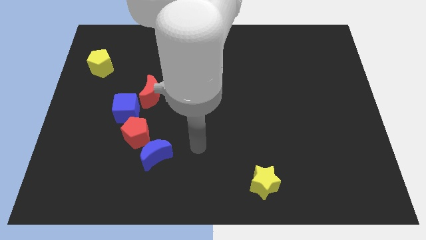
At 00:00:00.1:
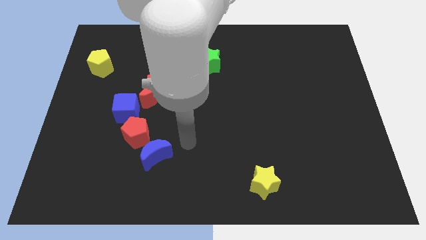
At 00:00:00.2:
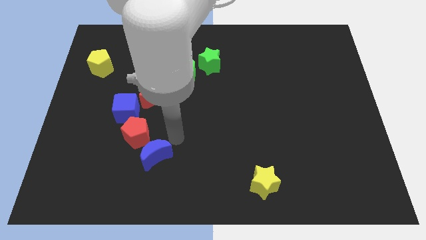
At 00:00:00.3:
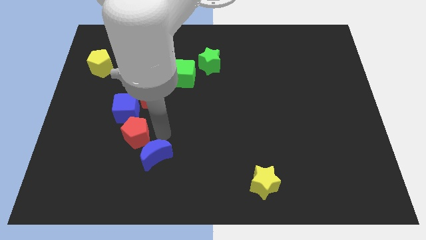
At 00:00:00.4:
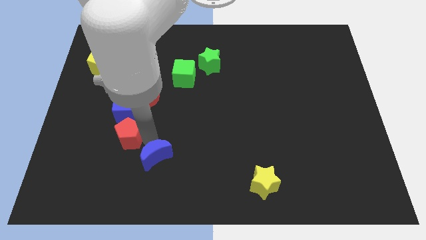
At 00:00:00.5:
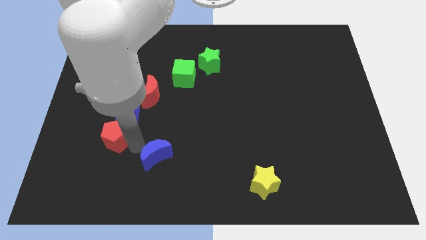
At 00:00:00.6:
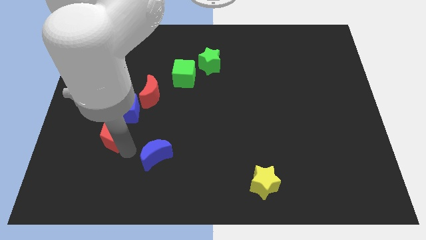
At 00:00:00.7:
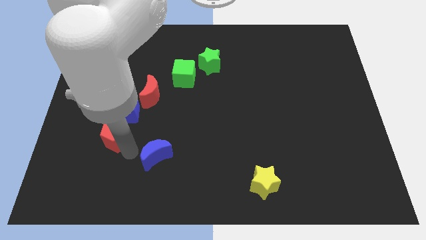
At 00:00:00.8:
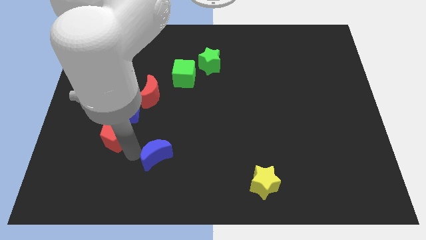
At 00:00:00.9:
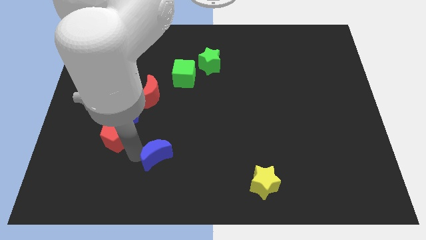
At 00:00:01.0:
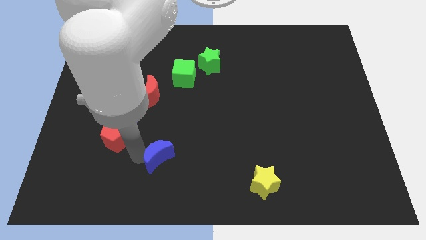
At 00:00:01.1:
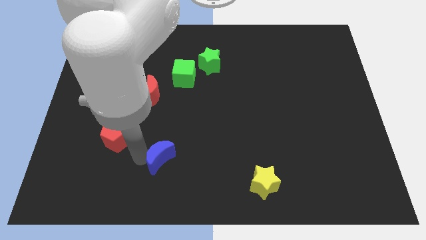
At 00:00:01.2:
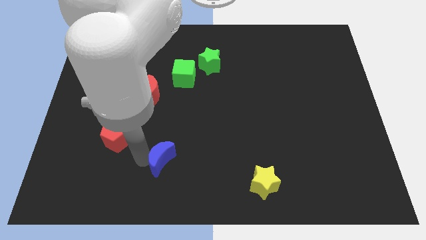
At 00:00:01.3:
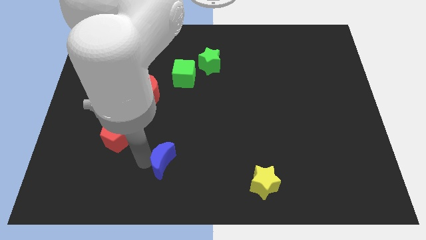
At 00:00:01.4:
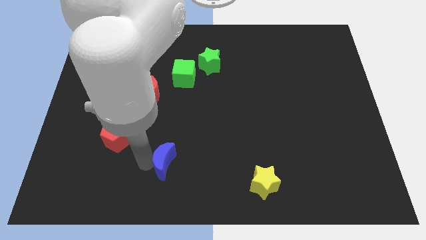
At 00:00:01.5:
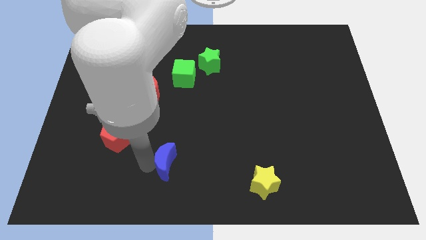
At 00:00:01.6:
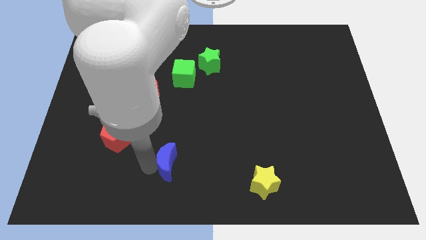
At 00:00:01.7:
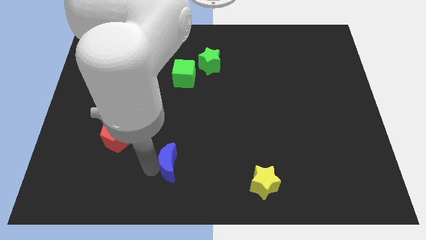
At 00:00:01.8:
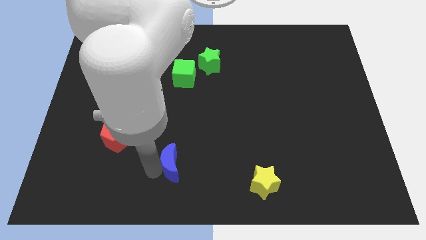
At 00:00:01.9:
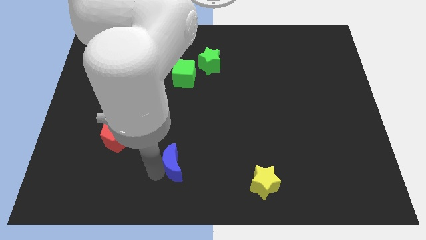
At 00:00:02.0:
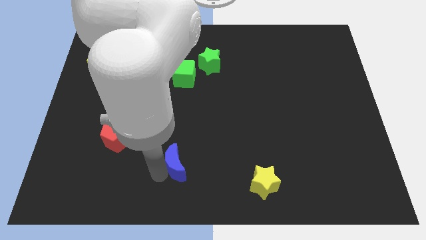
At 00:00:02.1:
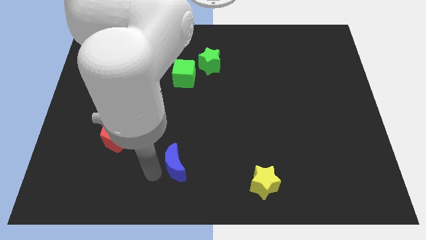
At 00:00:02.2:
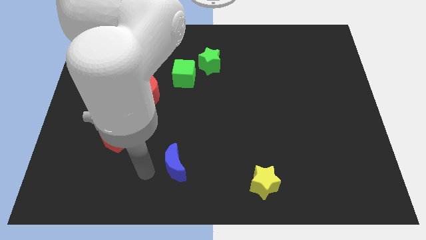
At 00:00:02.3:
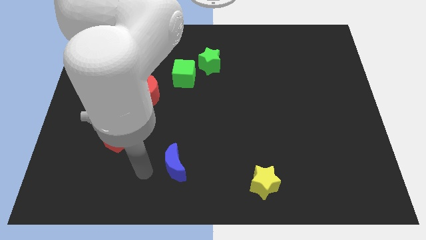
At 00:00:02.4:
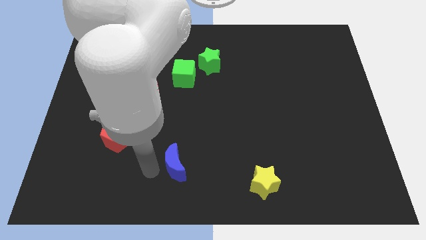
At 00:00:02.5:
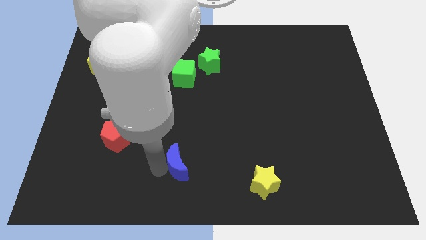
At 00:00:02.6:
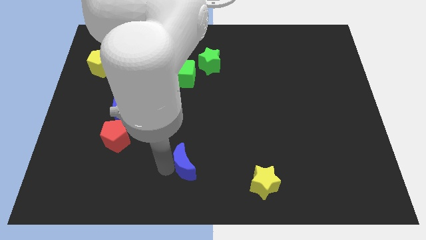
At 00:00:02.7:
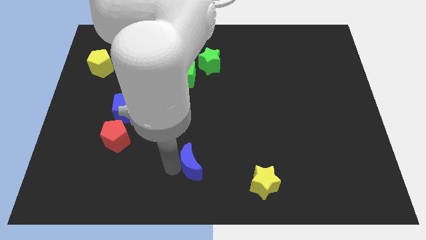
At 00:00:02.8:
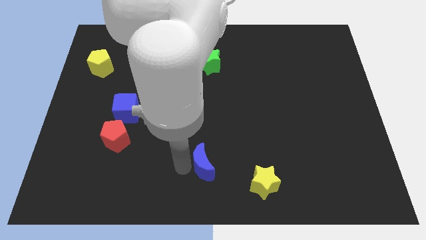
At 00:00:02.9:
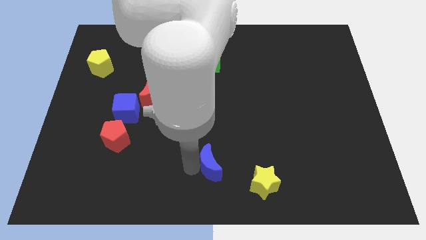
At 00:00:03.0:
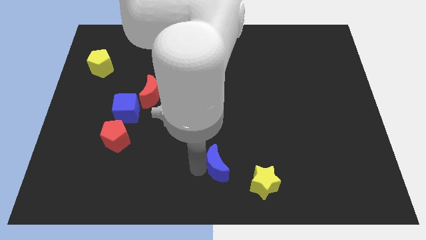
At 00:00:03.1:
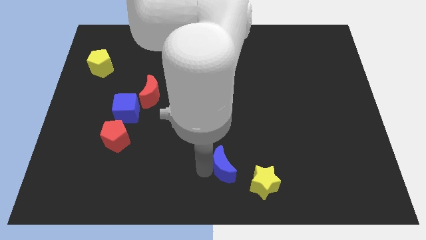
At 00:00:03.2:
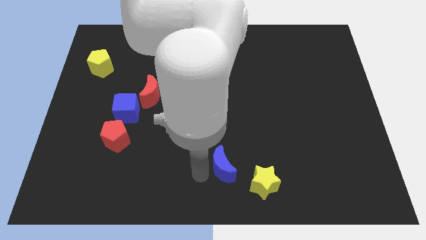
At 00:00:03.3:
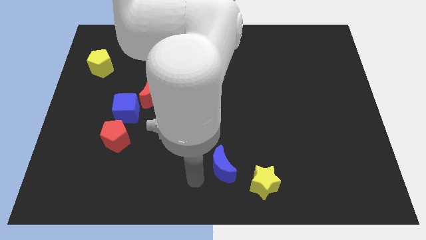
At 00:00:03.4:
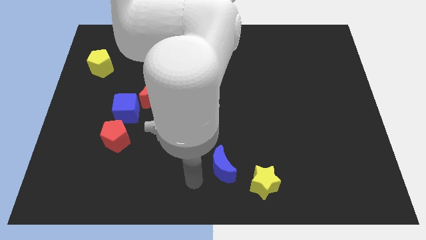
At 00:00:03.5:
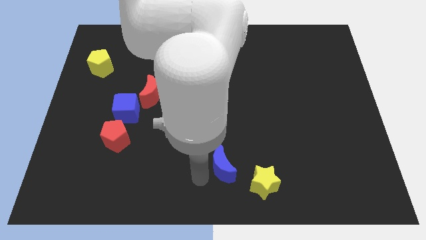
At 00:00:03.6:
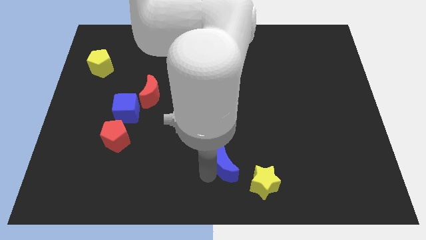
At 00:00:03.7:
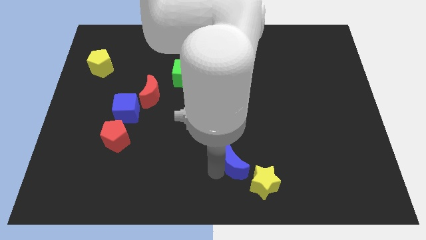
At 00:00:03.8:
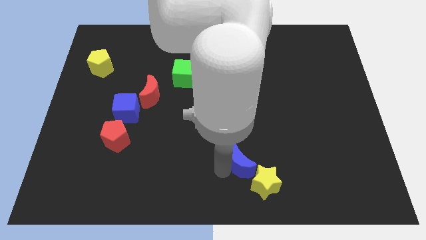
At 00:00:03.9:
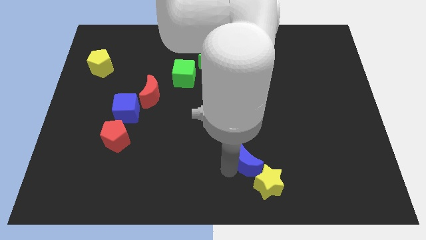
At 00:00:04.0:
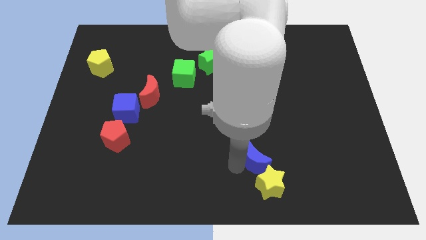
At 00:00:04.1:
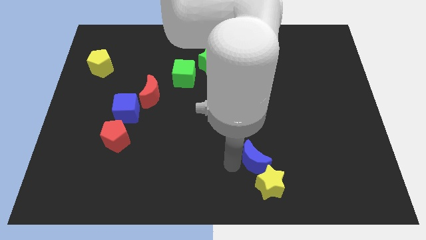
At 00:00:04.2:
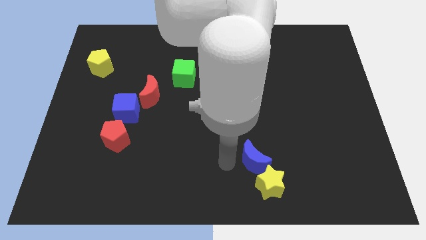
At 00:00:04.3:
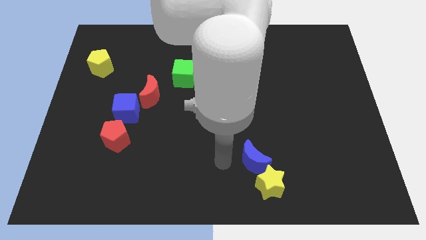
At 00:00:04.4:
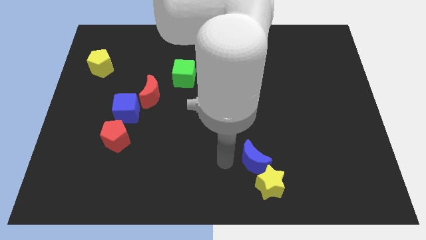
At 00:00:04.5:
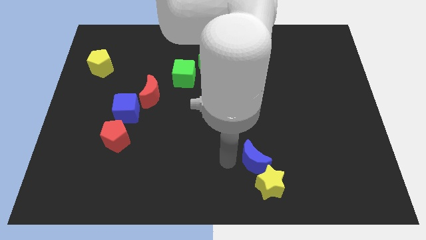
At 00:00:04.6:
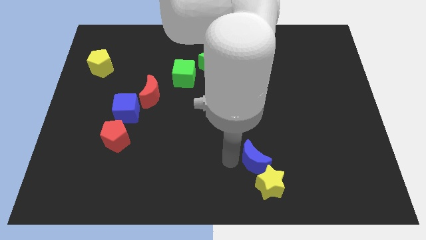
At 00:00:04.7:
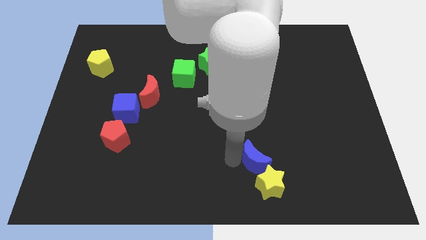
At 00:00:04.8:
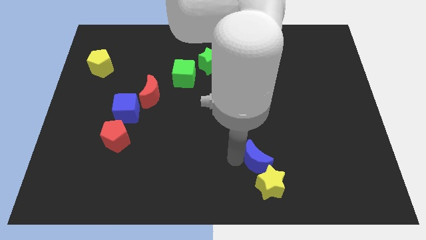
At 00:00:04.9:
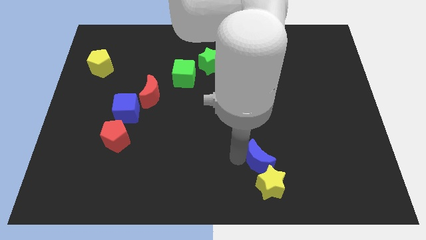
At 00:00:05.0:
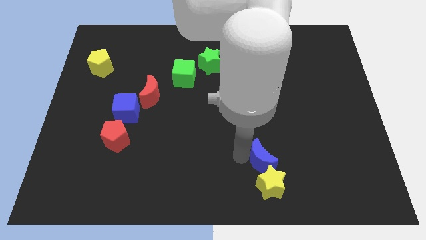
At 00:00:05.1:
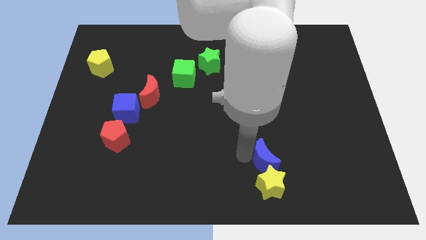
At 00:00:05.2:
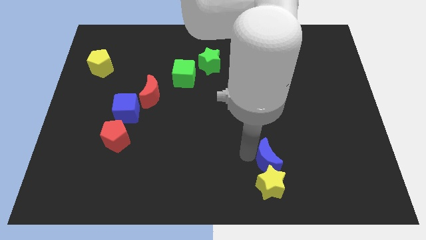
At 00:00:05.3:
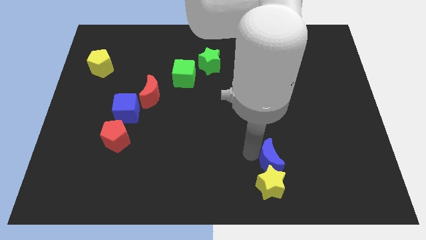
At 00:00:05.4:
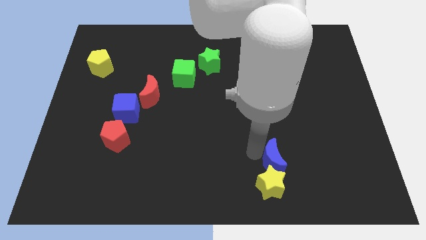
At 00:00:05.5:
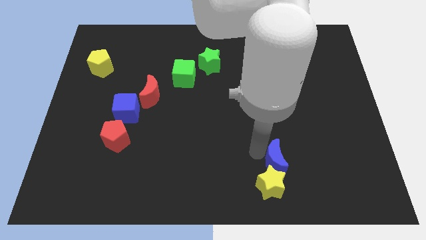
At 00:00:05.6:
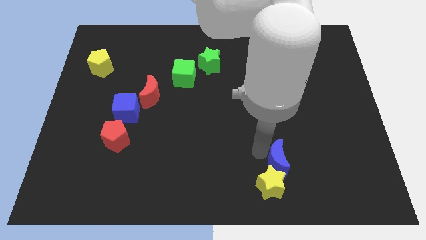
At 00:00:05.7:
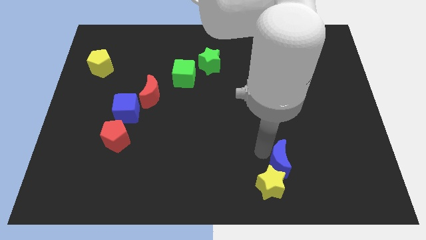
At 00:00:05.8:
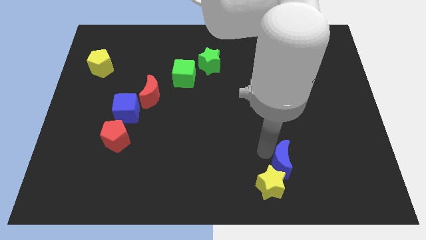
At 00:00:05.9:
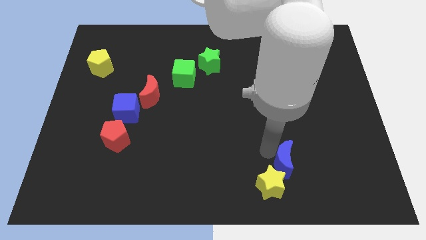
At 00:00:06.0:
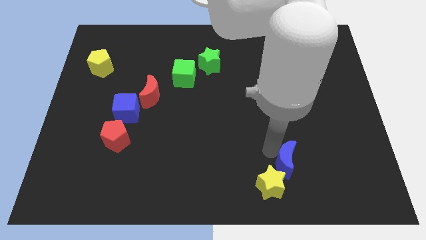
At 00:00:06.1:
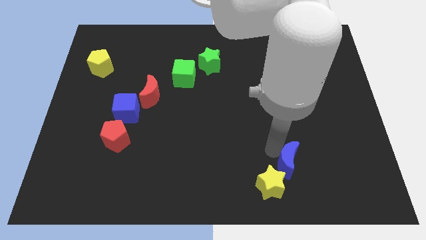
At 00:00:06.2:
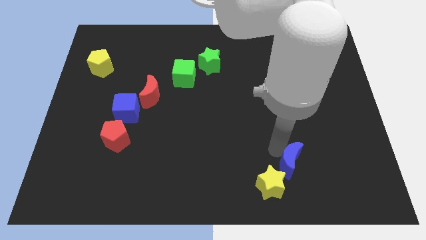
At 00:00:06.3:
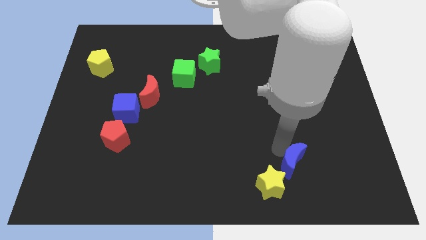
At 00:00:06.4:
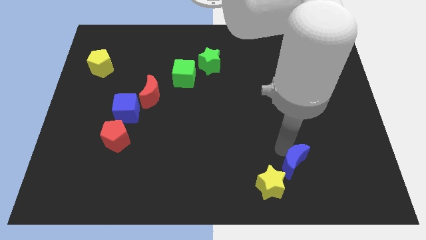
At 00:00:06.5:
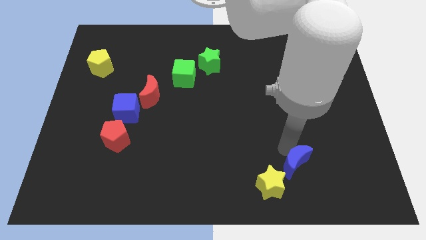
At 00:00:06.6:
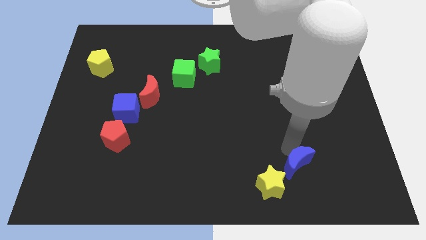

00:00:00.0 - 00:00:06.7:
slide the blue moon just right of the yellow star
